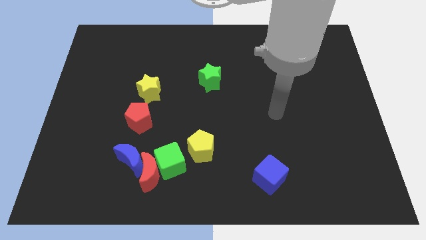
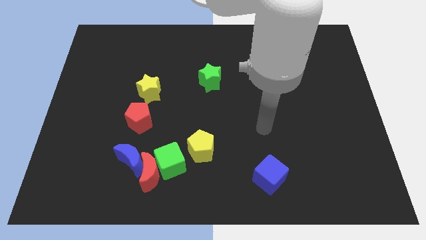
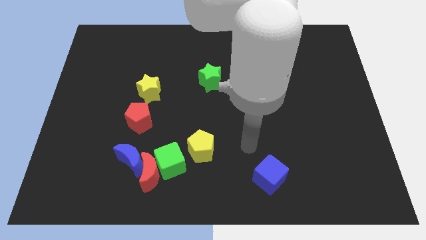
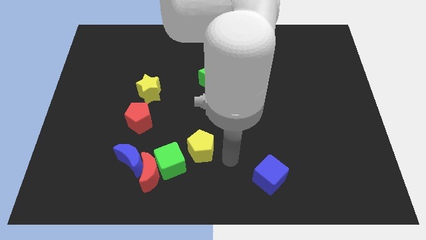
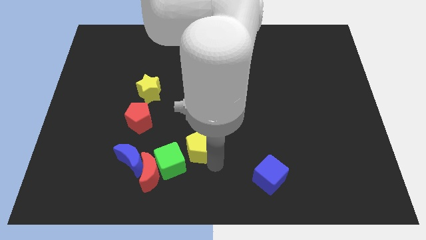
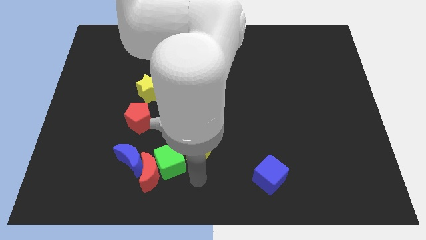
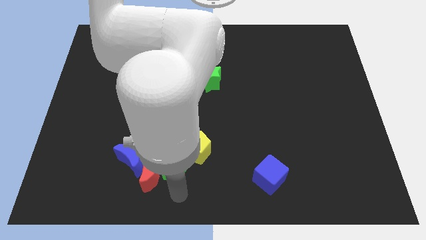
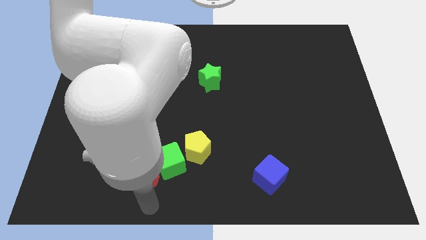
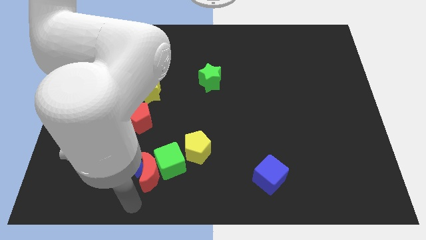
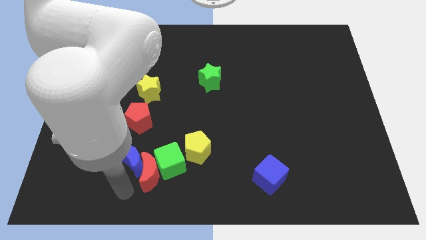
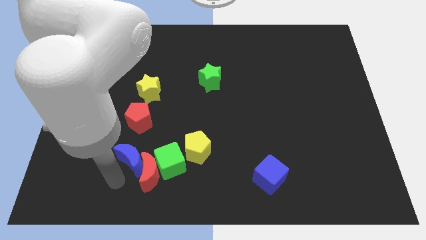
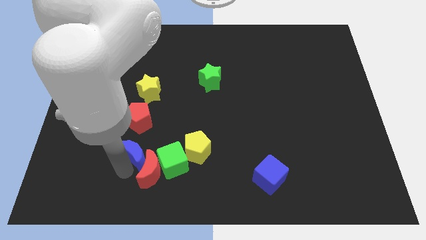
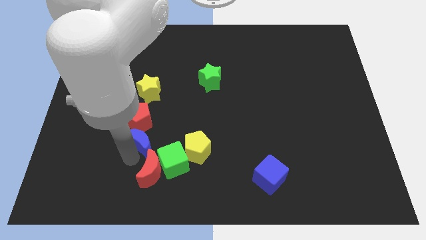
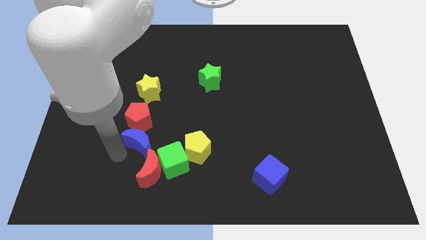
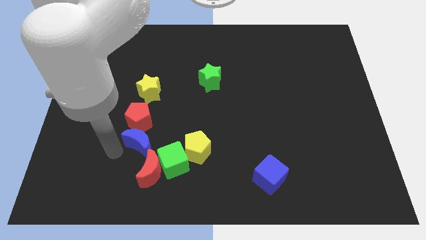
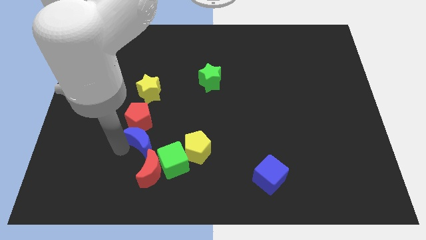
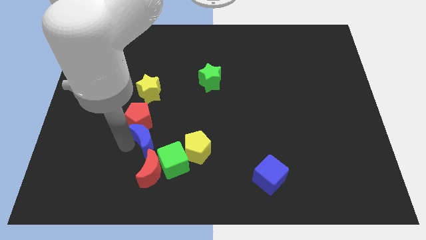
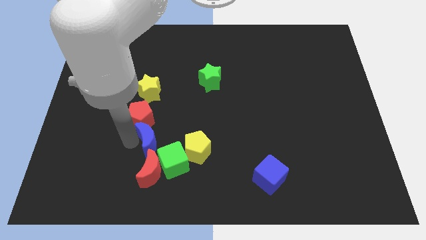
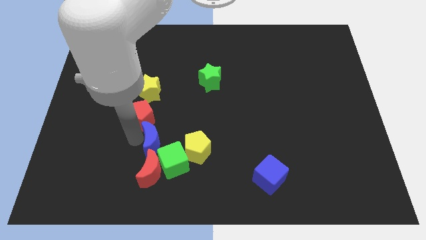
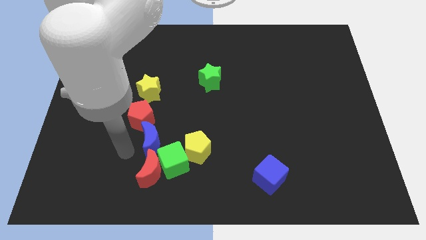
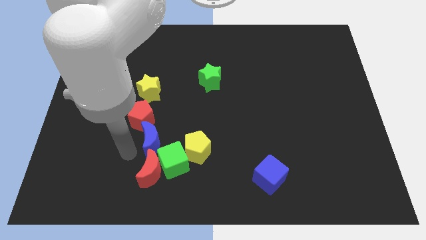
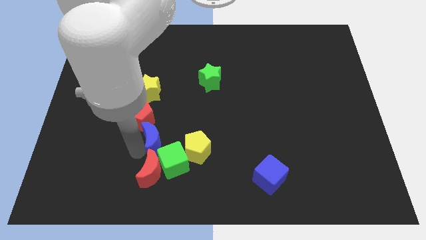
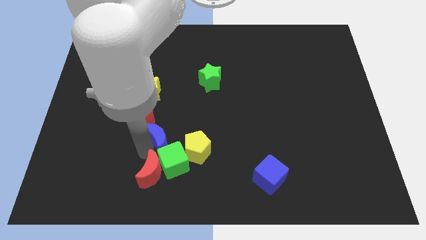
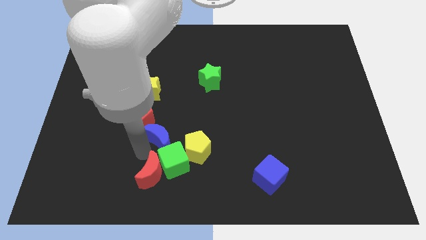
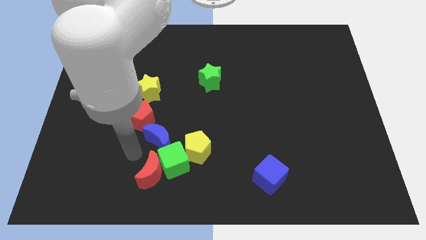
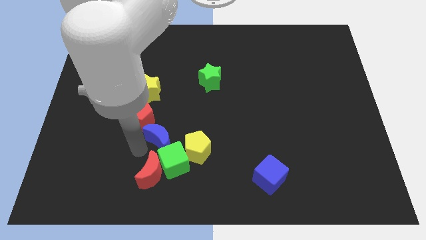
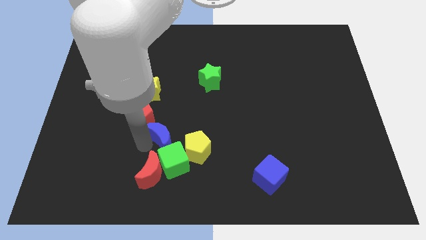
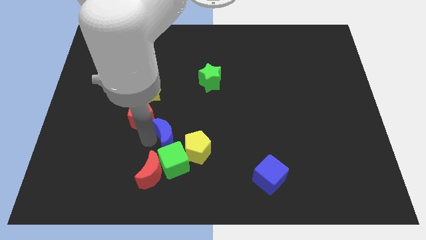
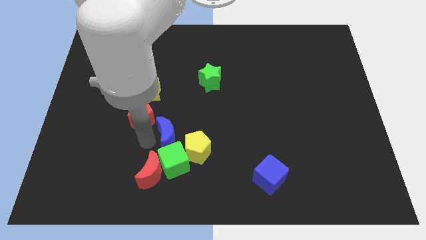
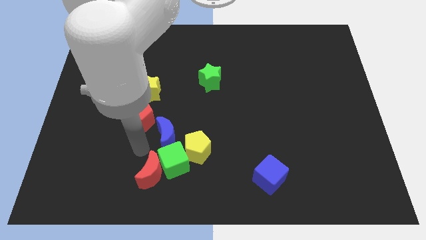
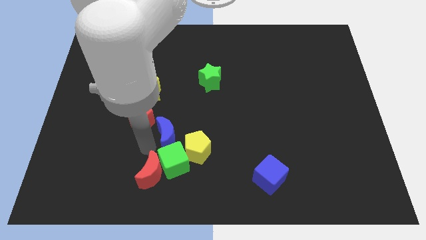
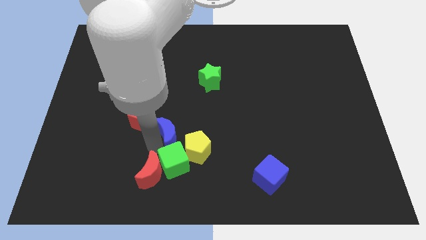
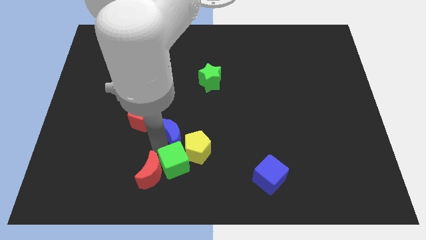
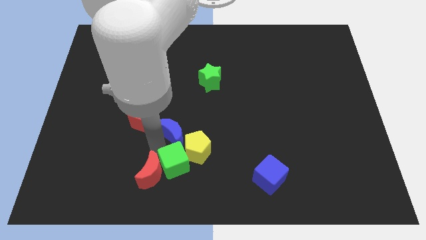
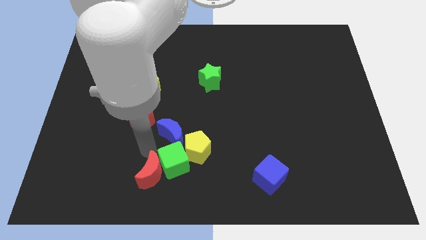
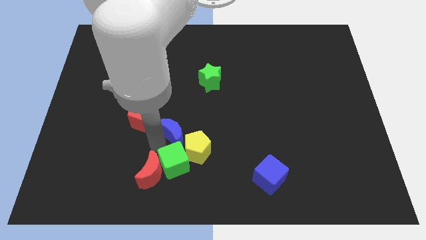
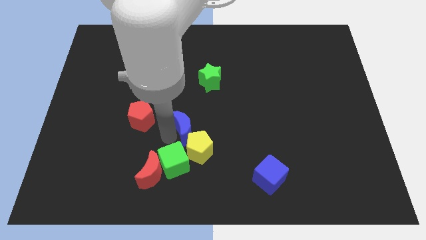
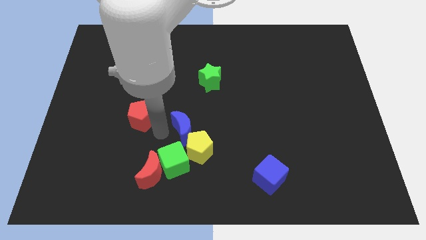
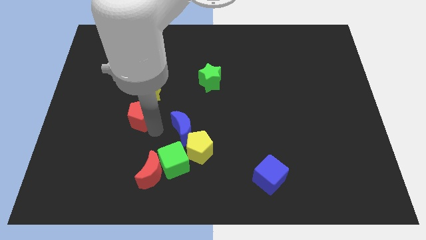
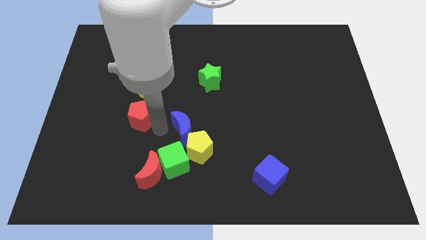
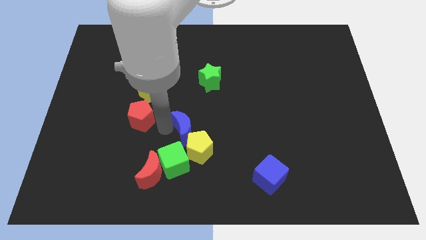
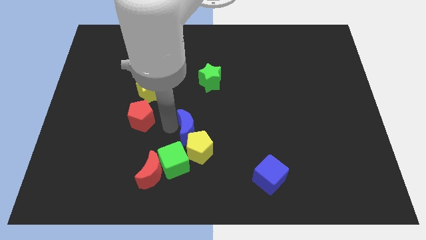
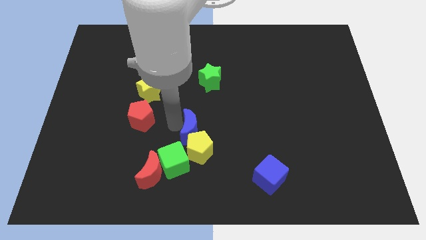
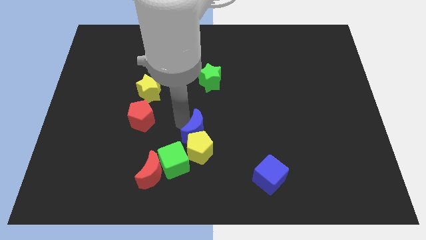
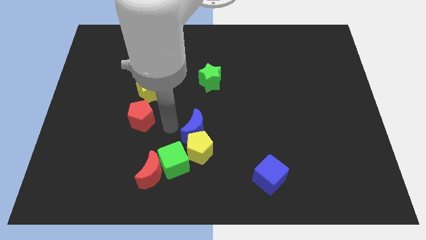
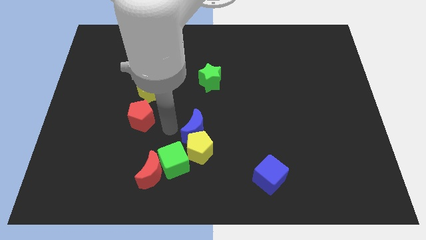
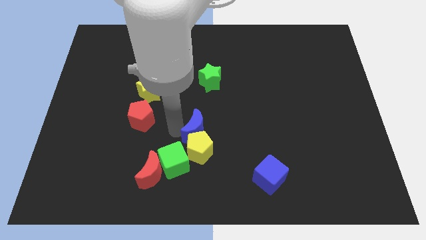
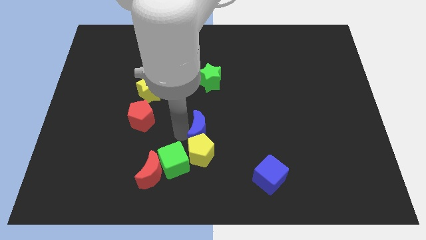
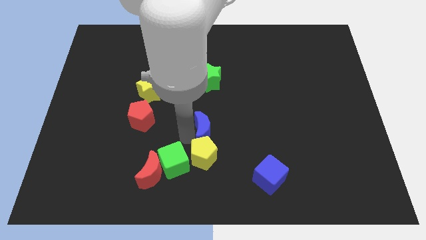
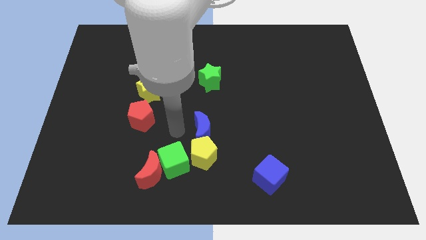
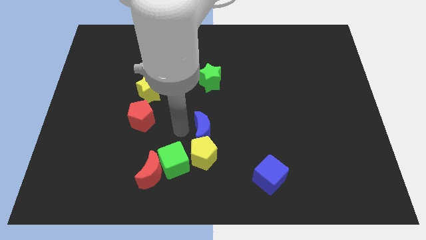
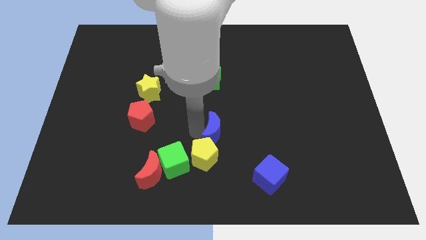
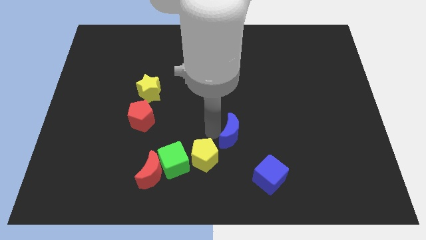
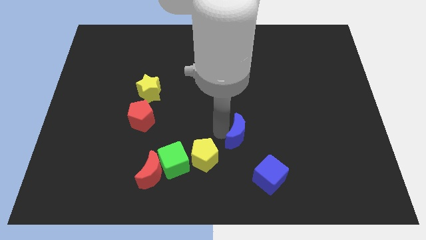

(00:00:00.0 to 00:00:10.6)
slide the blue moon to the right

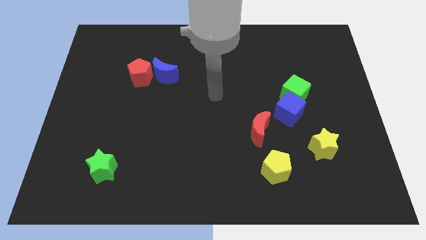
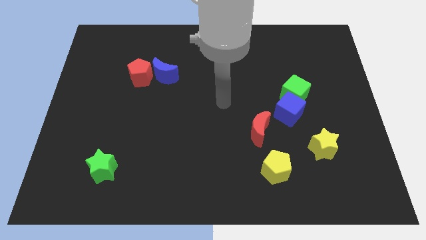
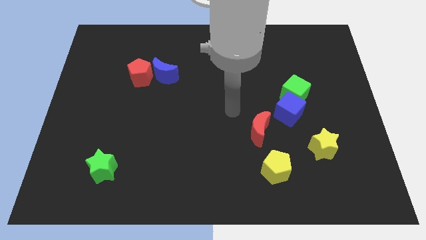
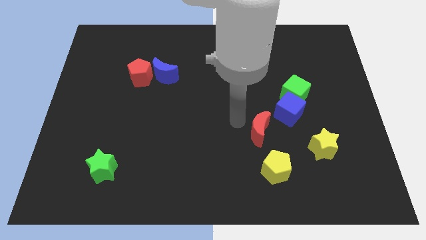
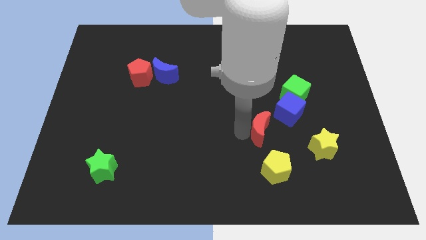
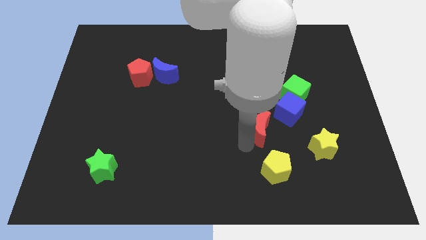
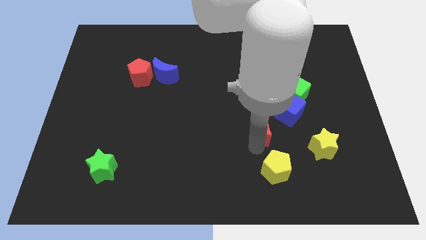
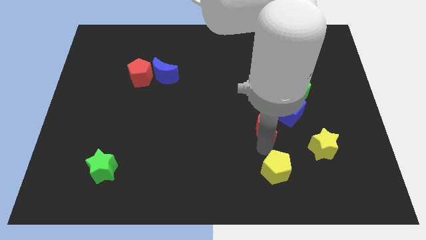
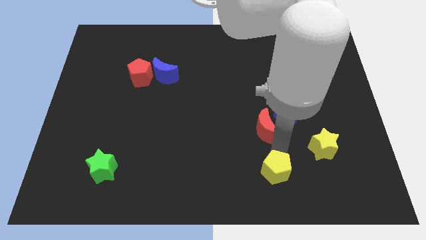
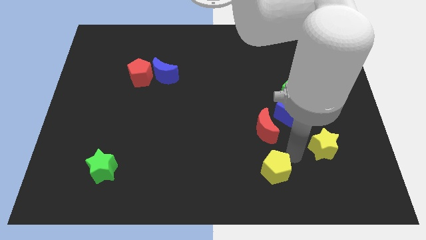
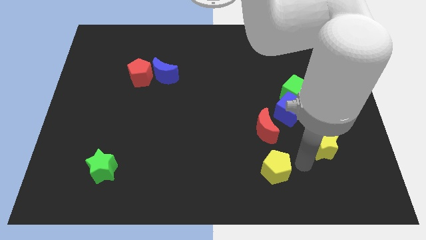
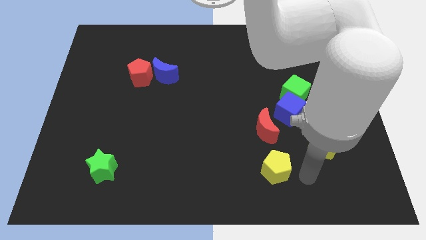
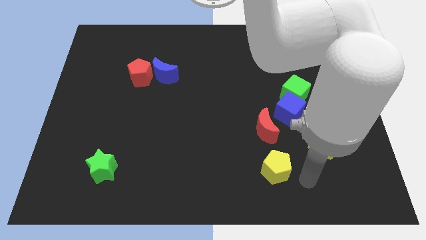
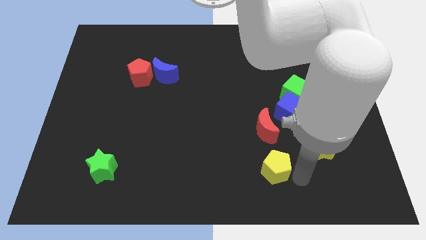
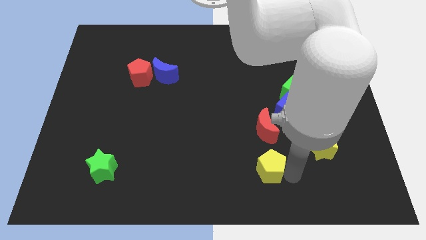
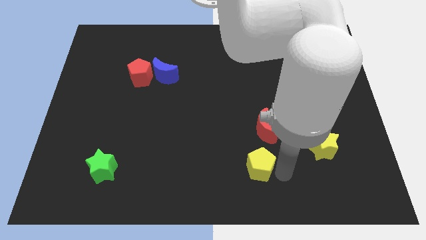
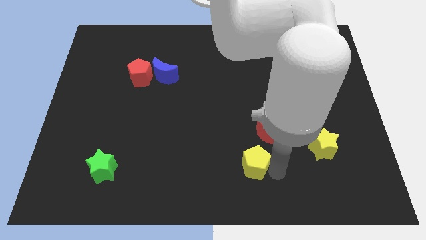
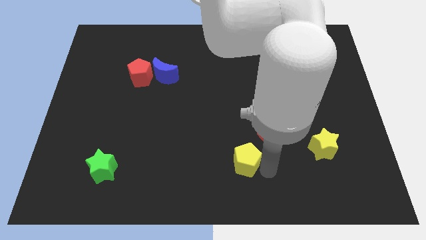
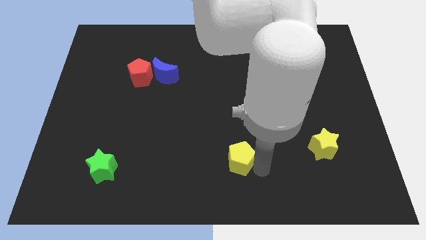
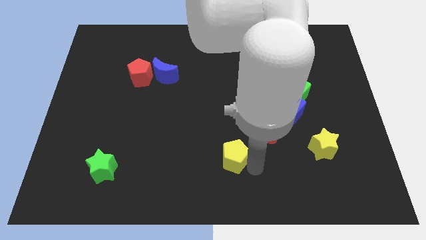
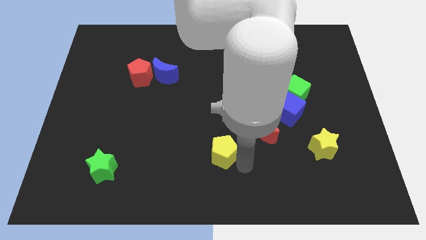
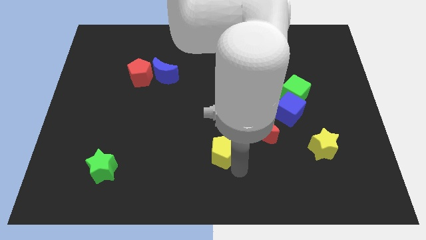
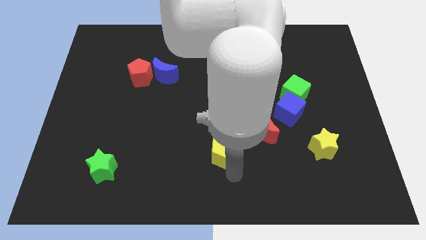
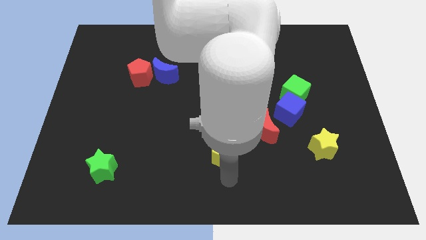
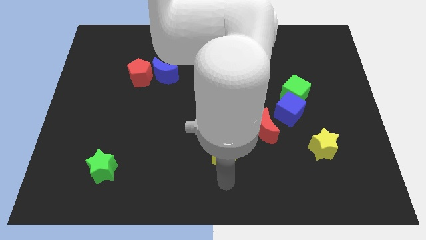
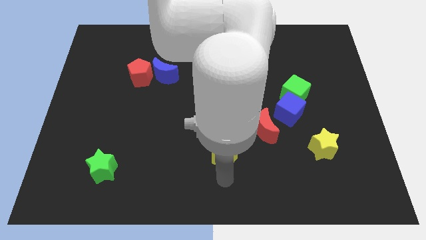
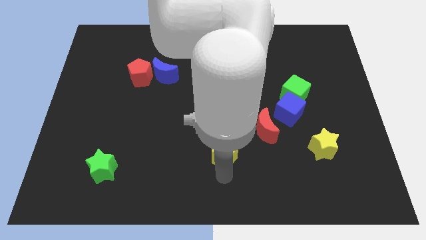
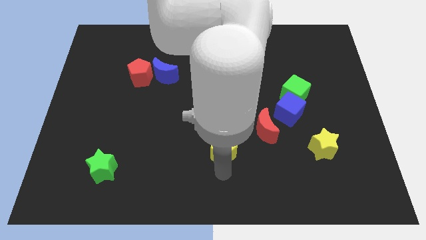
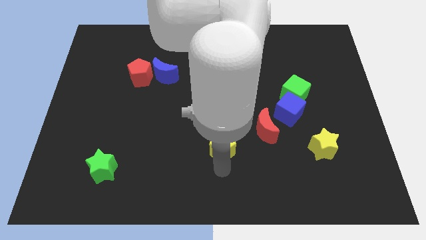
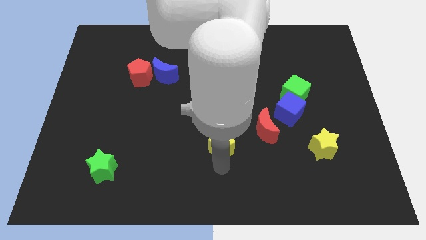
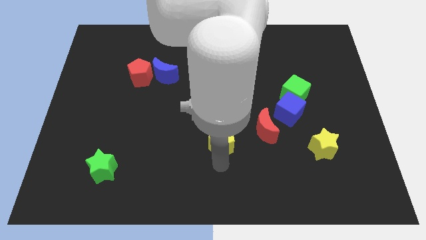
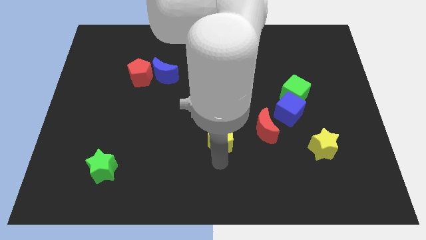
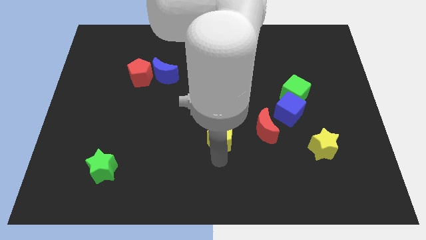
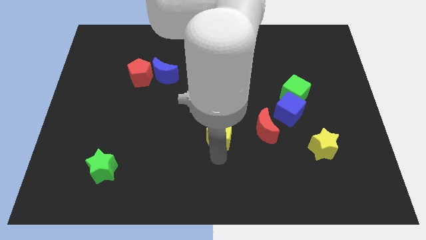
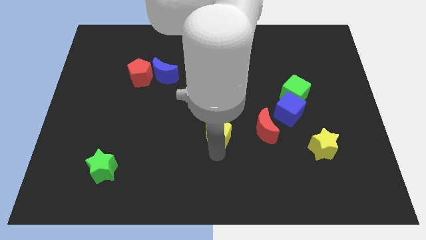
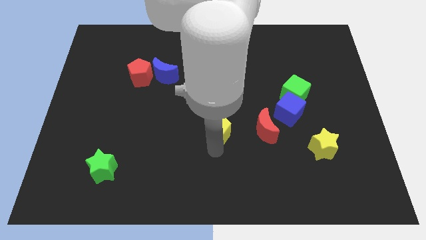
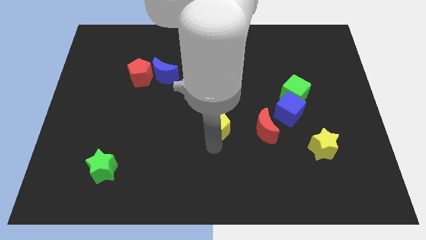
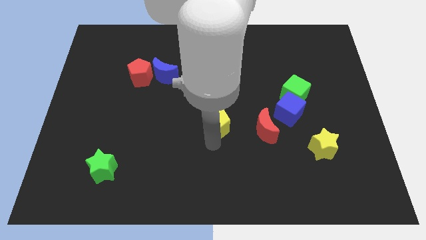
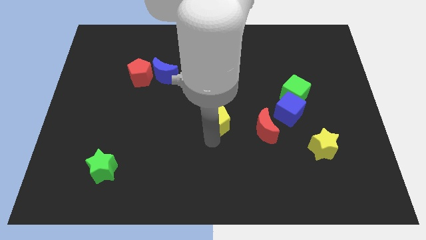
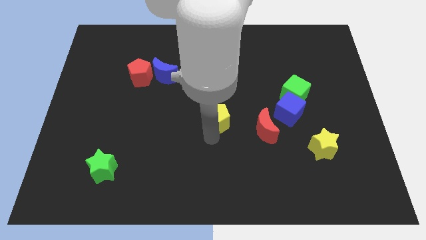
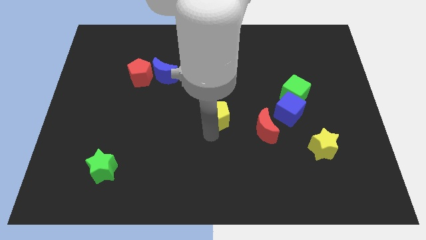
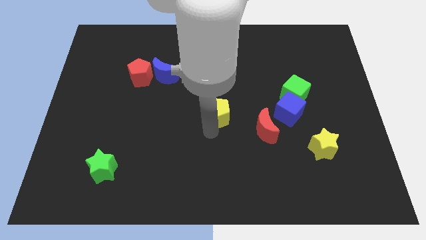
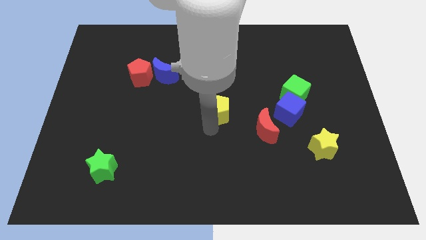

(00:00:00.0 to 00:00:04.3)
move the yellow pentagon up a little
